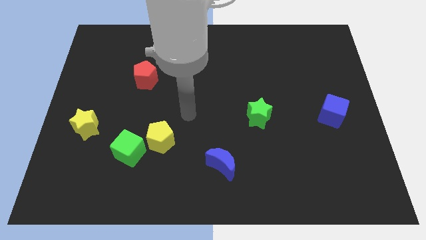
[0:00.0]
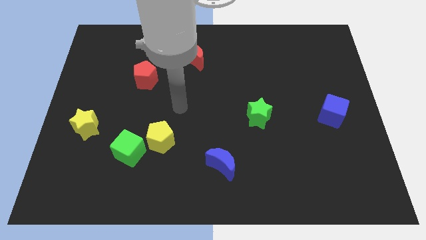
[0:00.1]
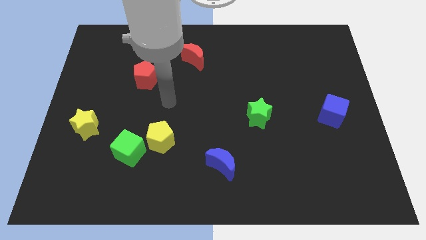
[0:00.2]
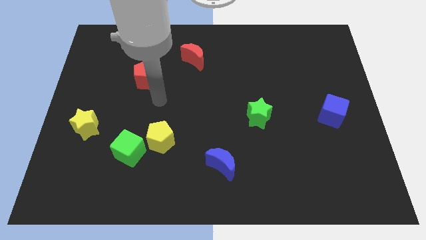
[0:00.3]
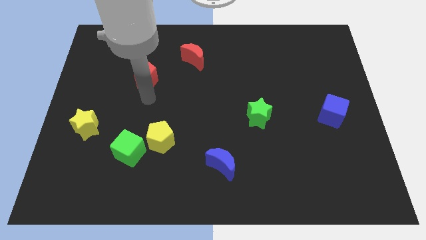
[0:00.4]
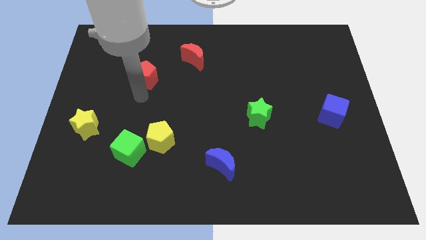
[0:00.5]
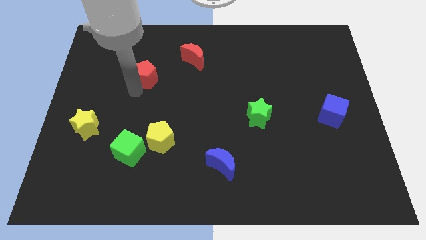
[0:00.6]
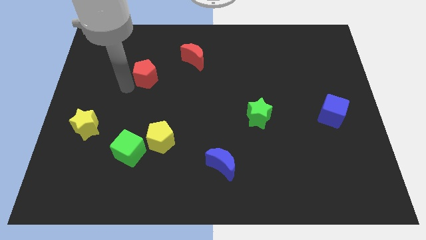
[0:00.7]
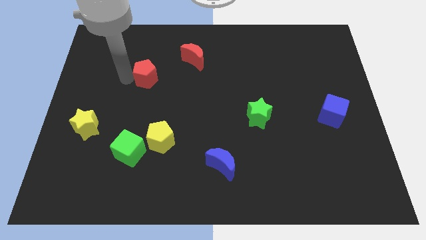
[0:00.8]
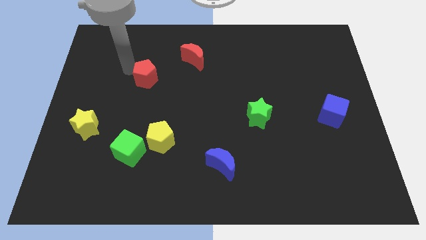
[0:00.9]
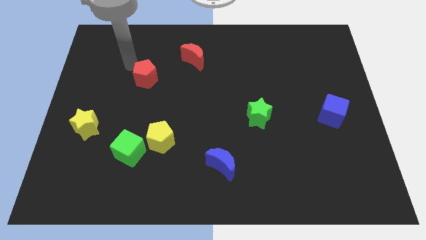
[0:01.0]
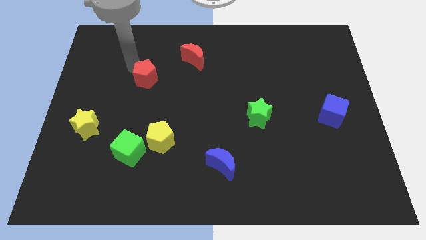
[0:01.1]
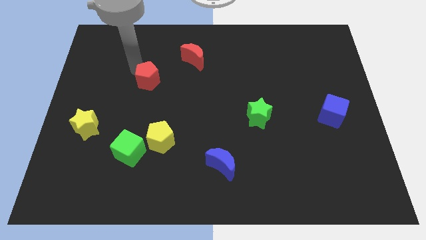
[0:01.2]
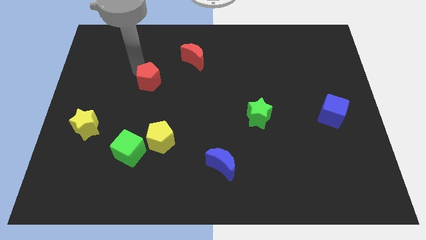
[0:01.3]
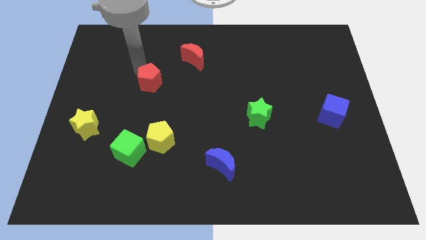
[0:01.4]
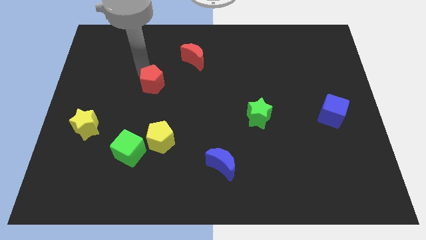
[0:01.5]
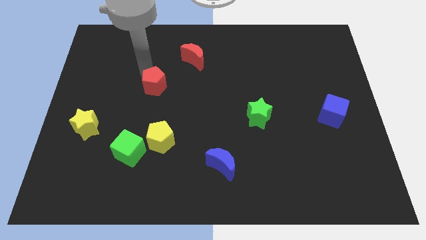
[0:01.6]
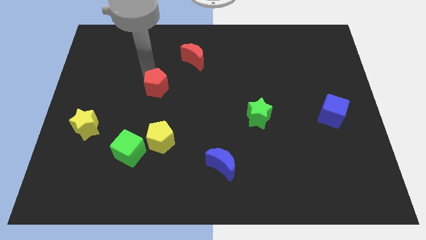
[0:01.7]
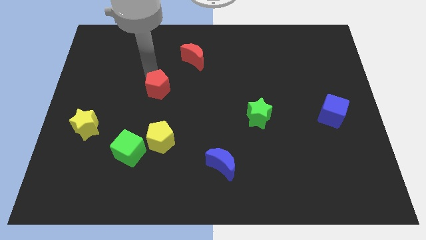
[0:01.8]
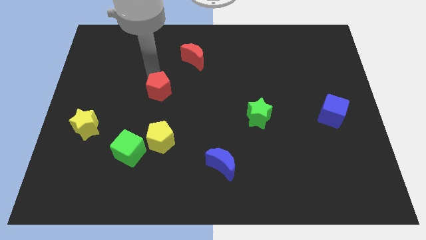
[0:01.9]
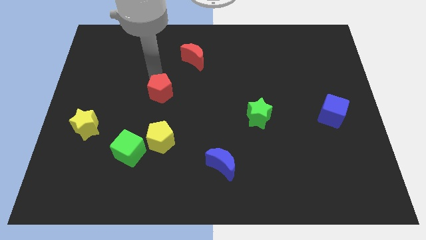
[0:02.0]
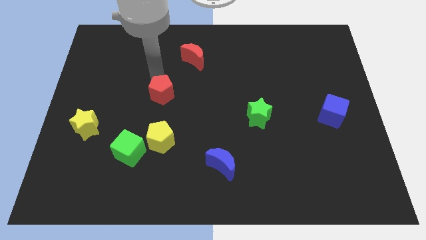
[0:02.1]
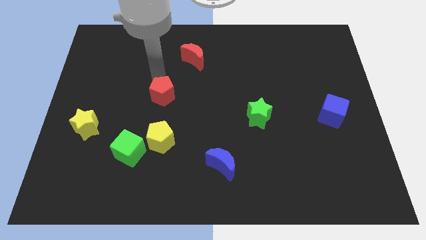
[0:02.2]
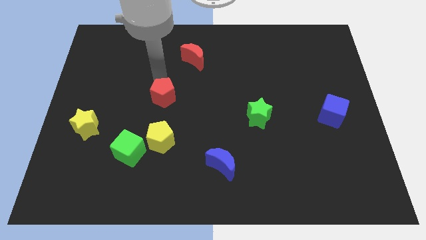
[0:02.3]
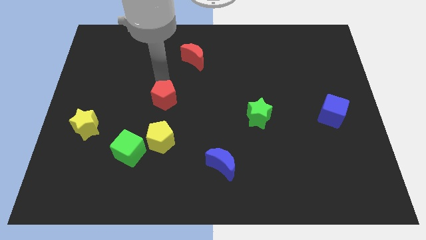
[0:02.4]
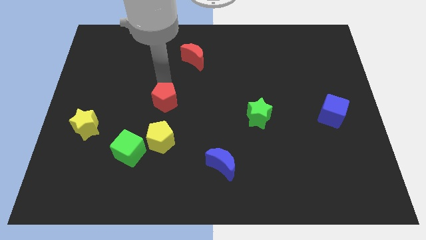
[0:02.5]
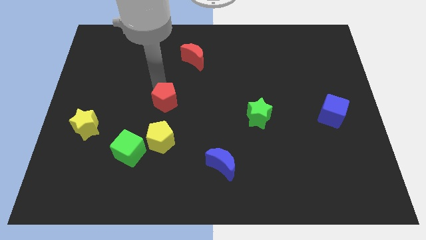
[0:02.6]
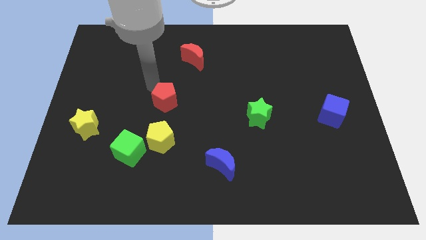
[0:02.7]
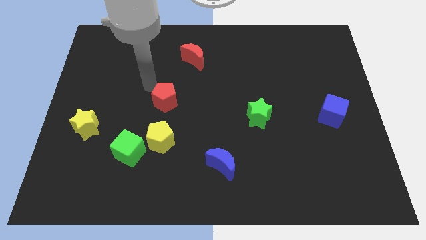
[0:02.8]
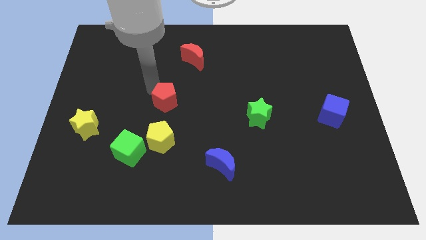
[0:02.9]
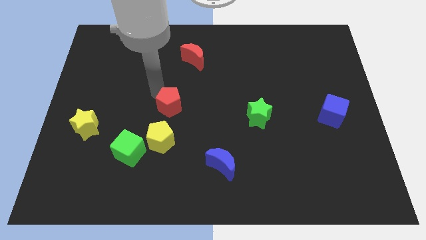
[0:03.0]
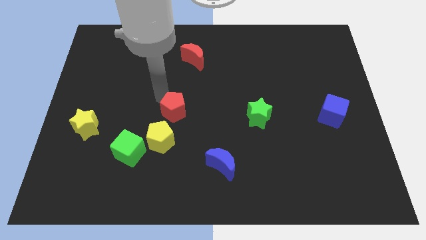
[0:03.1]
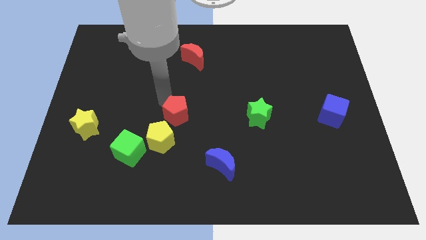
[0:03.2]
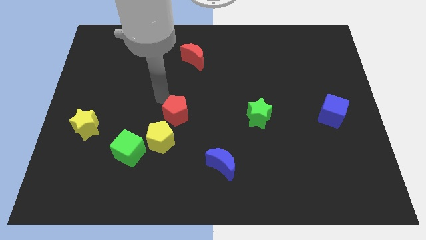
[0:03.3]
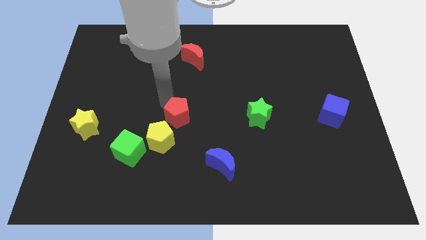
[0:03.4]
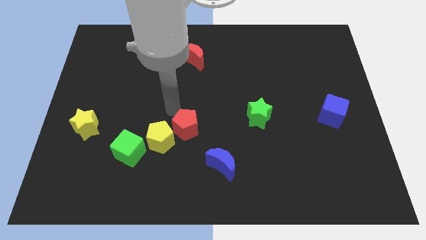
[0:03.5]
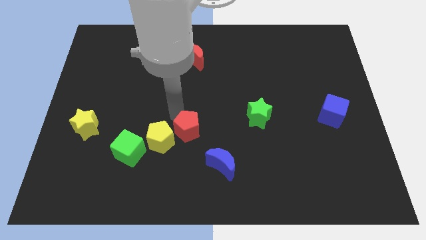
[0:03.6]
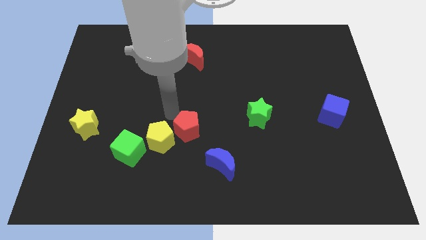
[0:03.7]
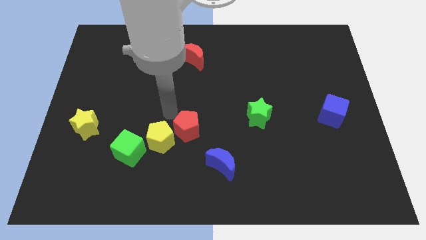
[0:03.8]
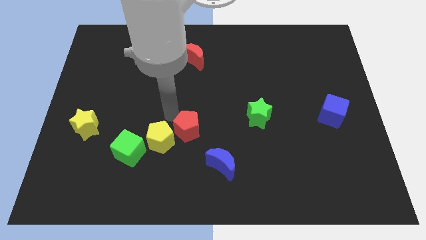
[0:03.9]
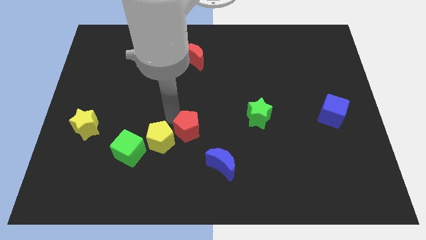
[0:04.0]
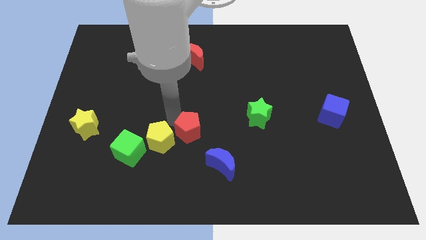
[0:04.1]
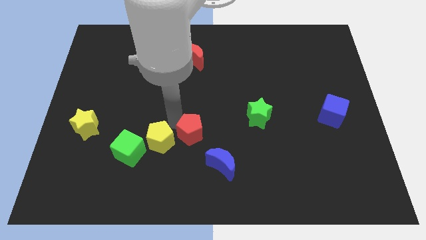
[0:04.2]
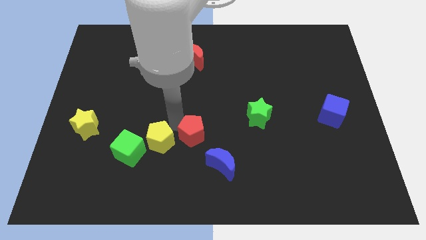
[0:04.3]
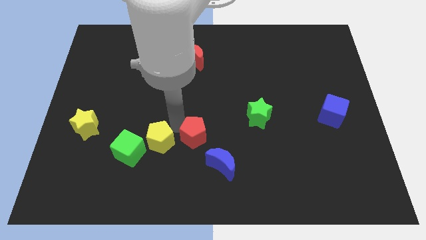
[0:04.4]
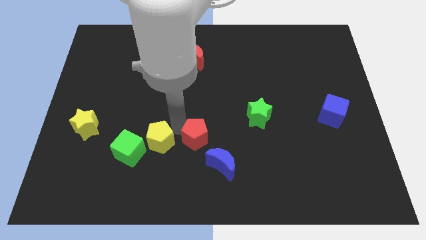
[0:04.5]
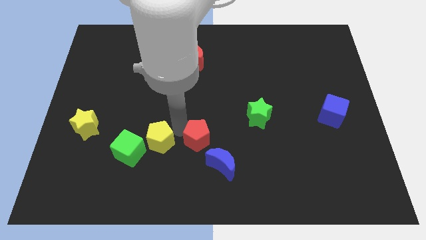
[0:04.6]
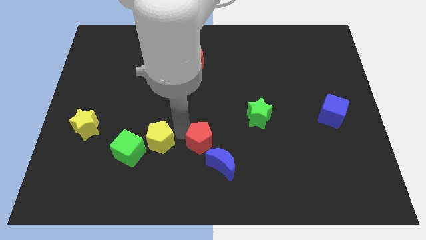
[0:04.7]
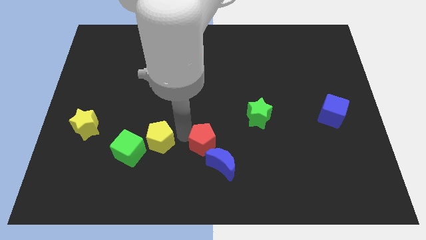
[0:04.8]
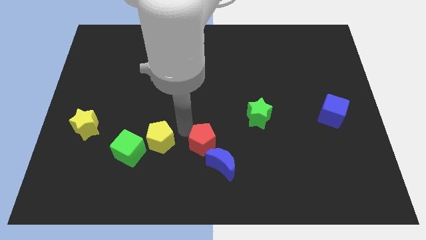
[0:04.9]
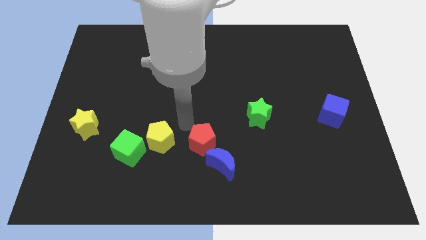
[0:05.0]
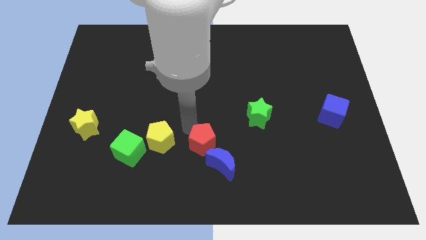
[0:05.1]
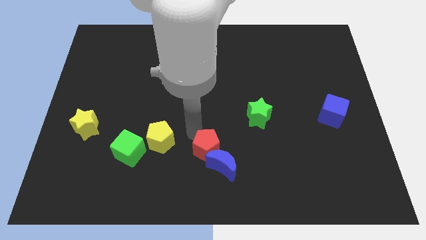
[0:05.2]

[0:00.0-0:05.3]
put the red pentagon to the blue moon

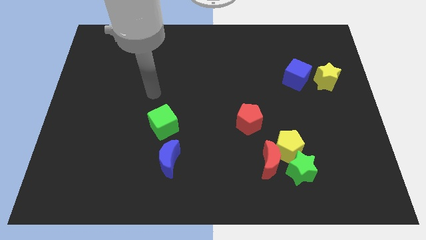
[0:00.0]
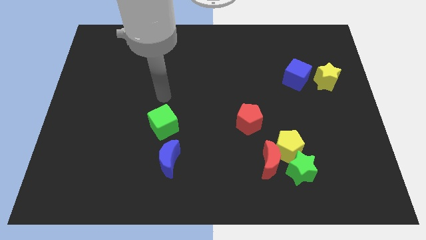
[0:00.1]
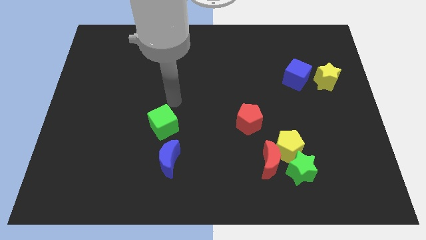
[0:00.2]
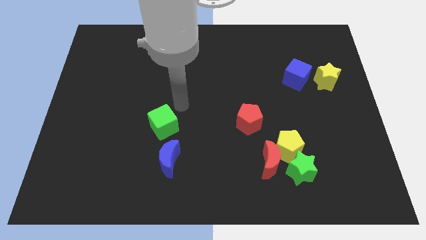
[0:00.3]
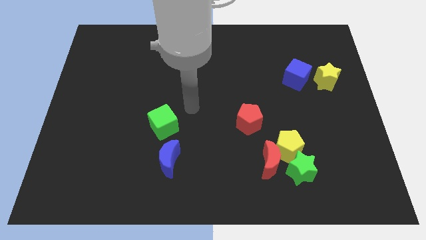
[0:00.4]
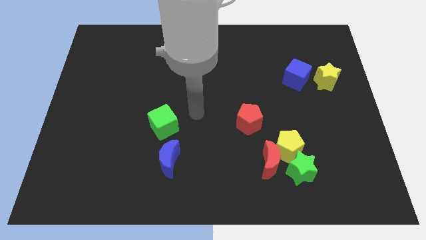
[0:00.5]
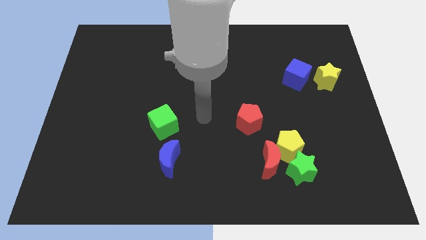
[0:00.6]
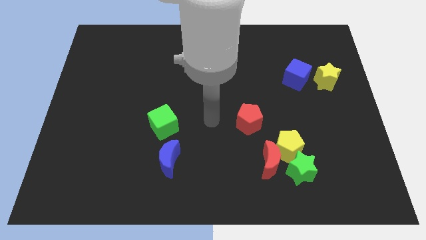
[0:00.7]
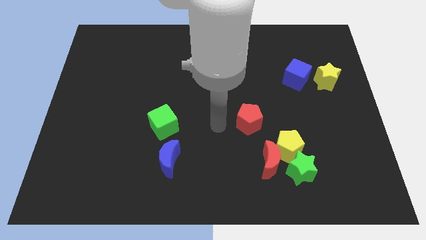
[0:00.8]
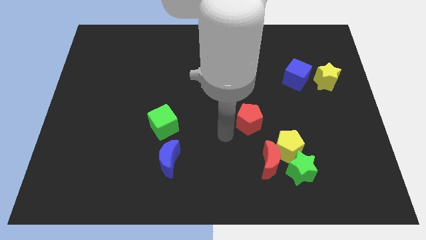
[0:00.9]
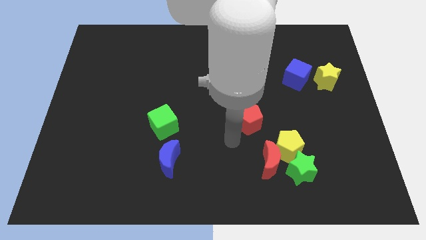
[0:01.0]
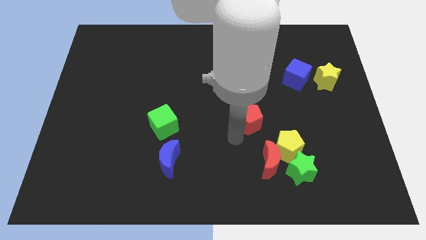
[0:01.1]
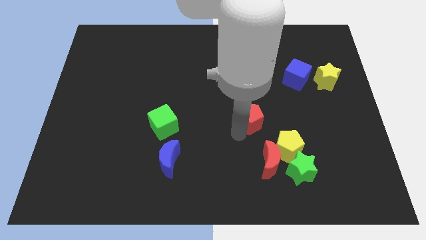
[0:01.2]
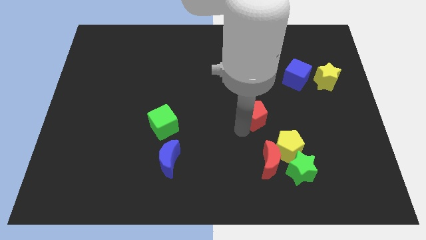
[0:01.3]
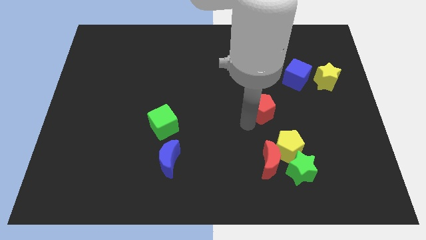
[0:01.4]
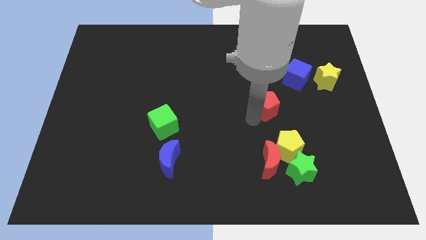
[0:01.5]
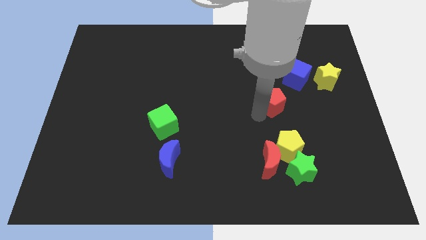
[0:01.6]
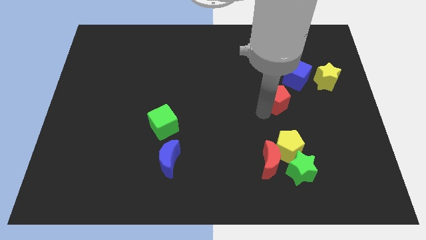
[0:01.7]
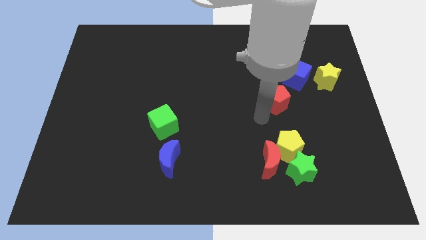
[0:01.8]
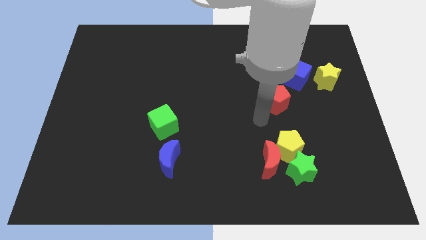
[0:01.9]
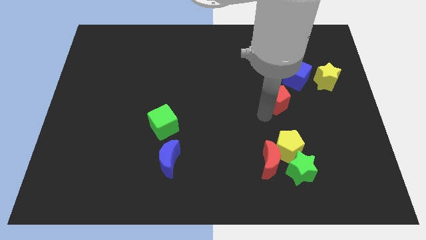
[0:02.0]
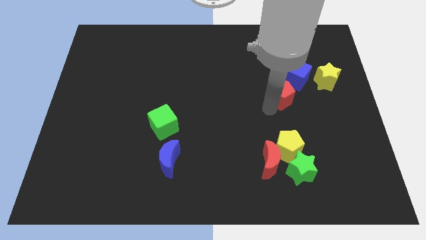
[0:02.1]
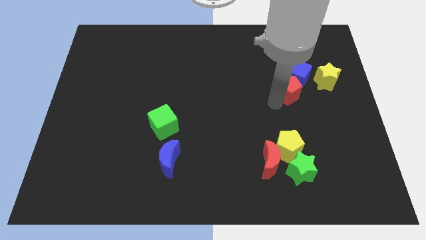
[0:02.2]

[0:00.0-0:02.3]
slide the red pentagon close to the blue cube
